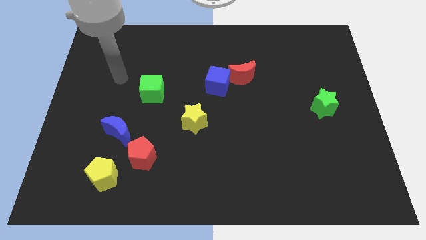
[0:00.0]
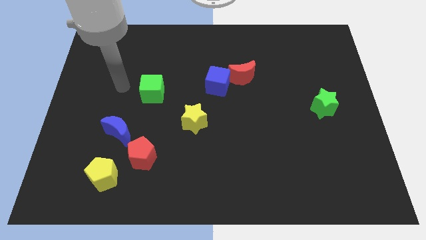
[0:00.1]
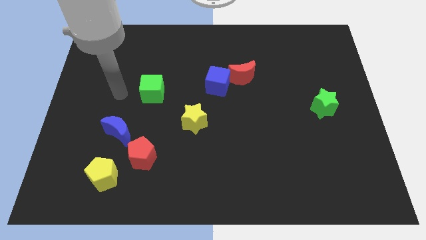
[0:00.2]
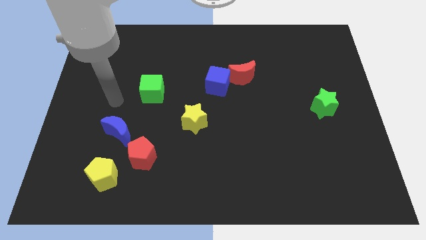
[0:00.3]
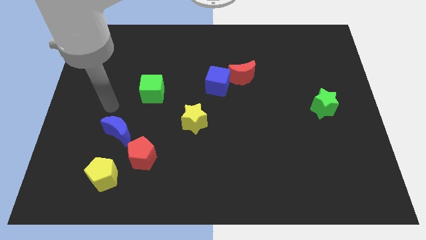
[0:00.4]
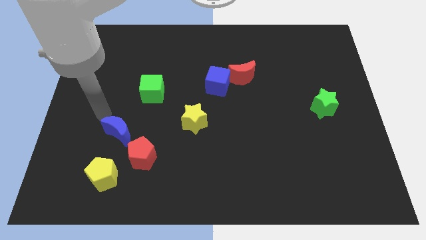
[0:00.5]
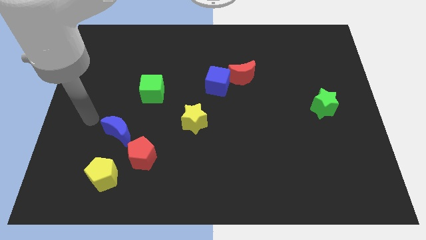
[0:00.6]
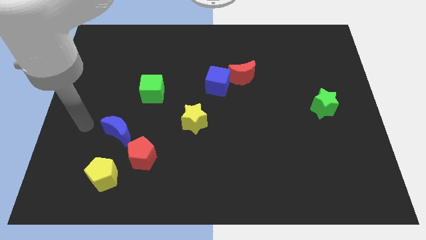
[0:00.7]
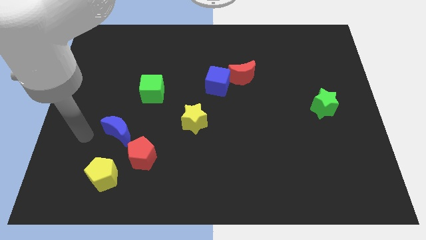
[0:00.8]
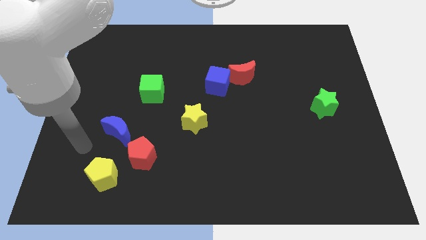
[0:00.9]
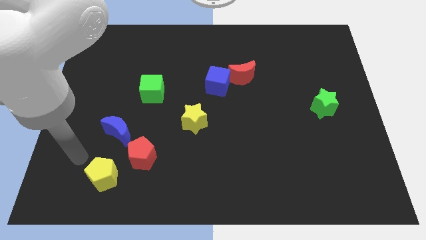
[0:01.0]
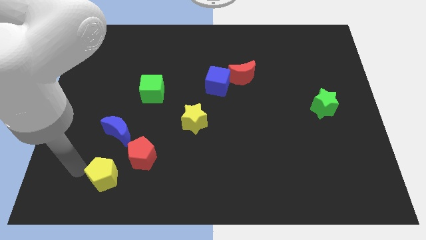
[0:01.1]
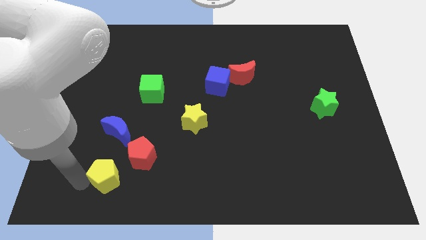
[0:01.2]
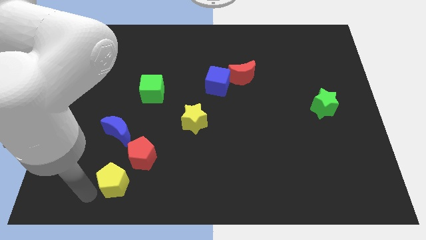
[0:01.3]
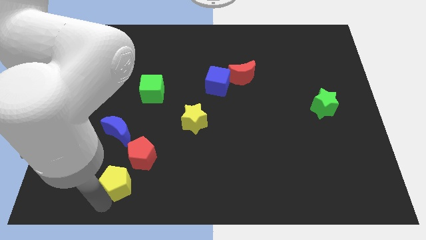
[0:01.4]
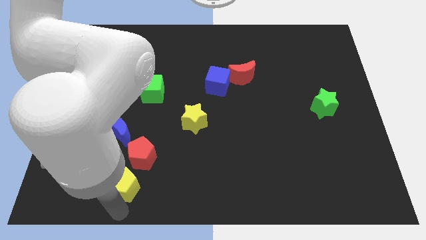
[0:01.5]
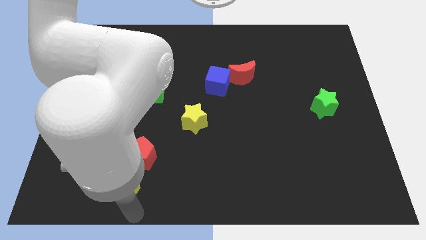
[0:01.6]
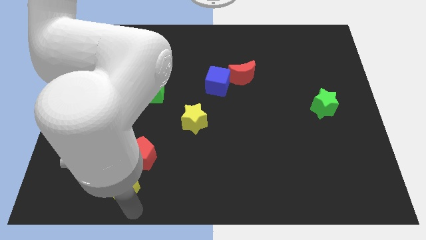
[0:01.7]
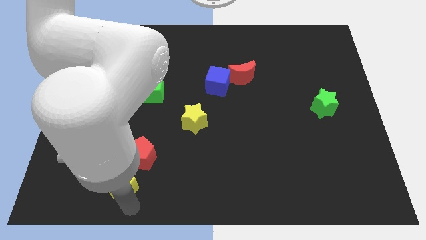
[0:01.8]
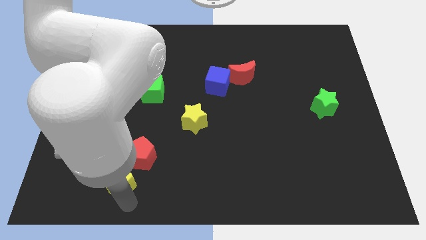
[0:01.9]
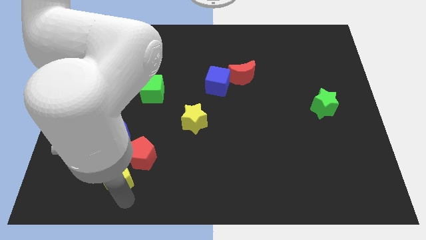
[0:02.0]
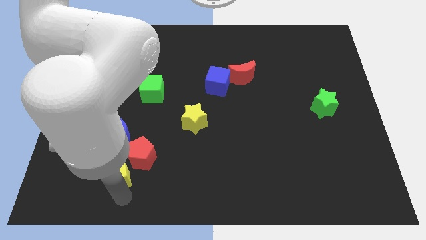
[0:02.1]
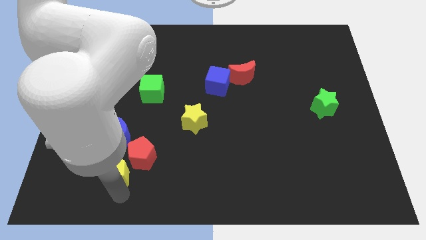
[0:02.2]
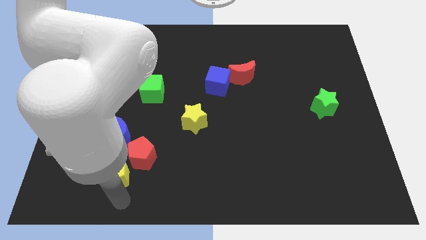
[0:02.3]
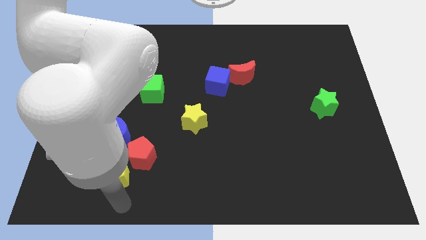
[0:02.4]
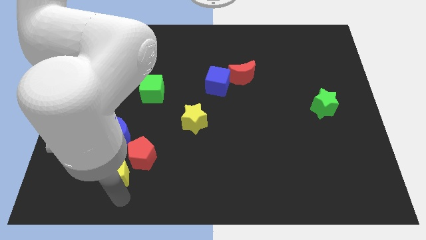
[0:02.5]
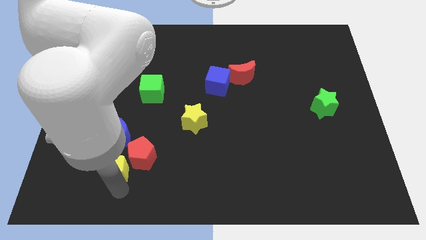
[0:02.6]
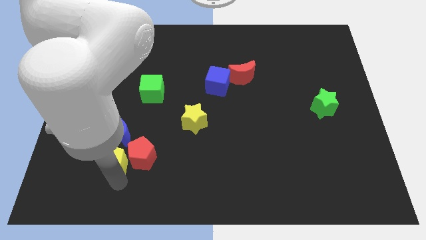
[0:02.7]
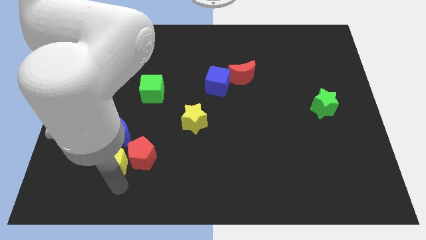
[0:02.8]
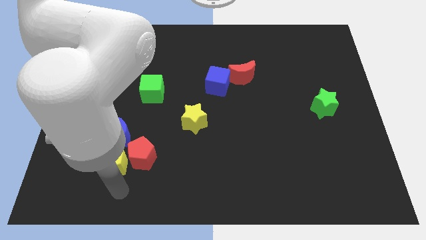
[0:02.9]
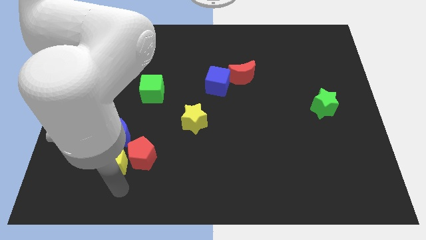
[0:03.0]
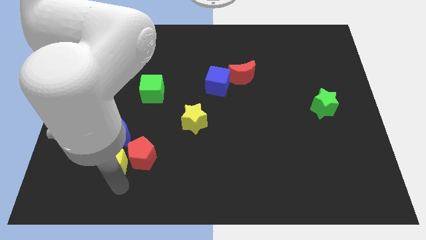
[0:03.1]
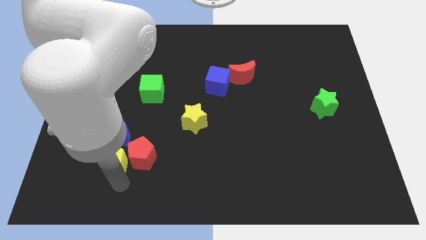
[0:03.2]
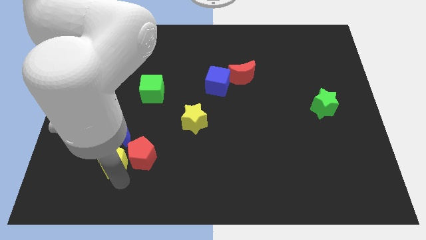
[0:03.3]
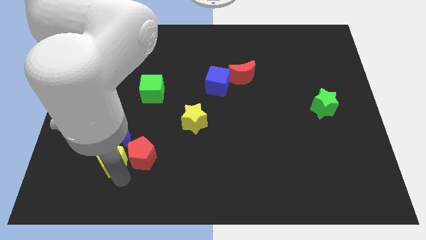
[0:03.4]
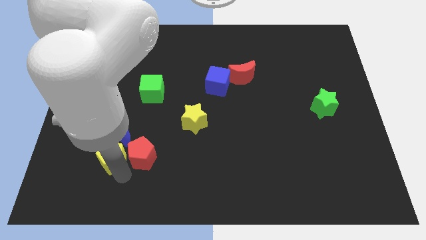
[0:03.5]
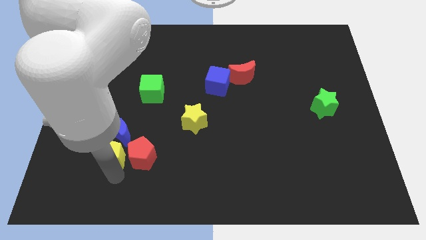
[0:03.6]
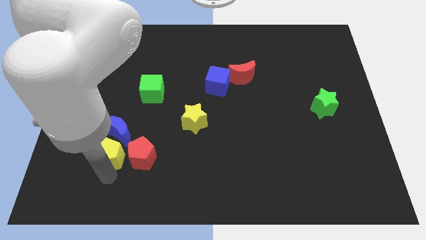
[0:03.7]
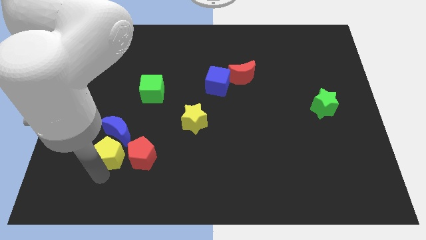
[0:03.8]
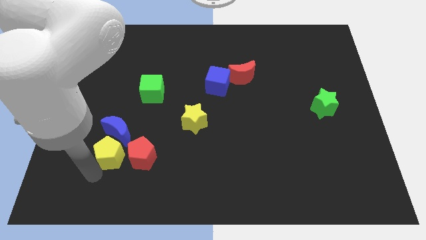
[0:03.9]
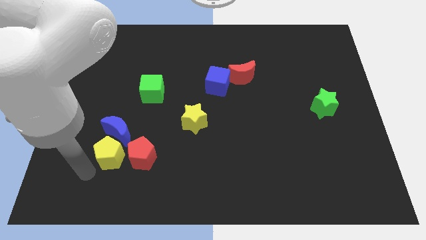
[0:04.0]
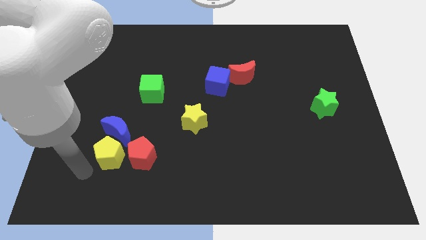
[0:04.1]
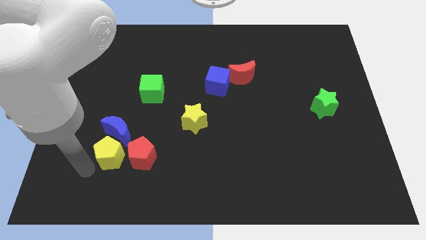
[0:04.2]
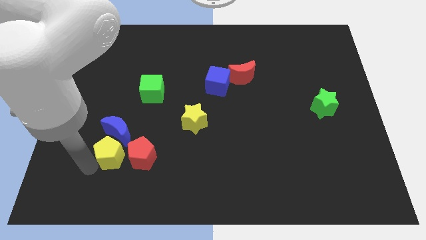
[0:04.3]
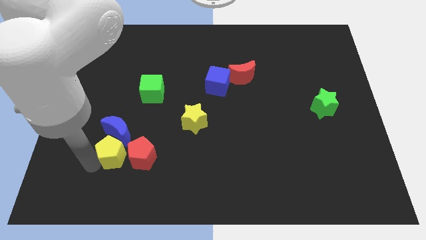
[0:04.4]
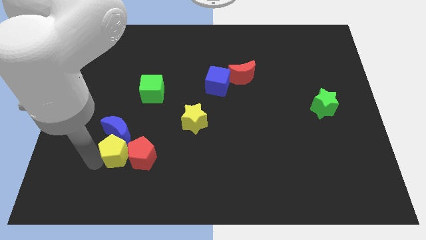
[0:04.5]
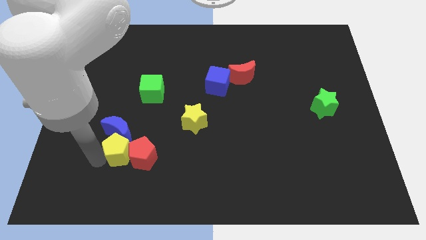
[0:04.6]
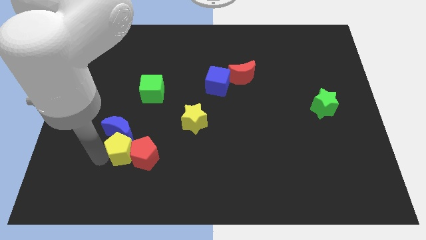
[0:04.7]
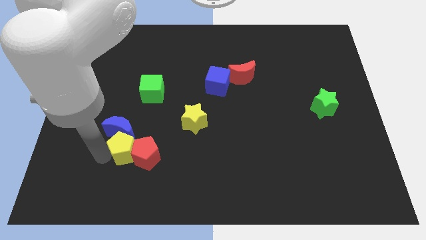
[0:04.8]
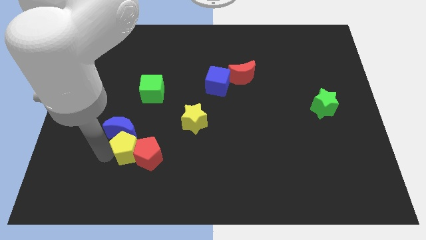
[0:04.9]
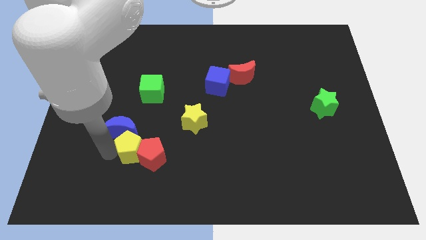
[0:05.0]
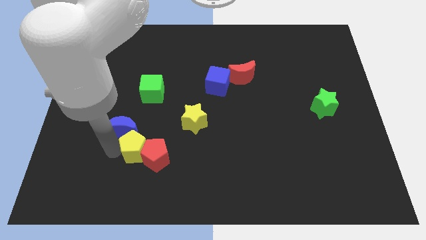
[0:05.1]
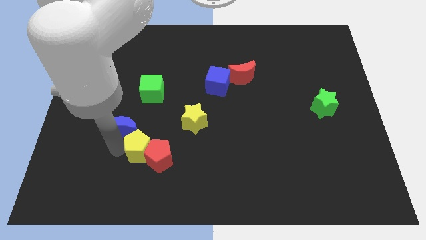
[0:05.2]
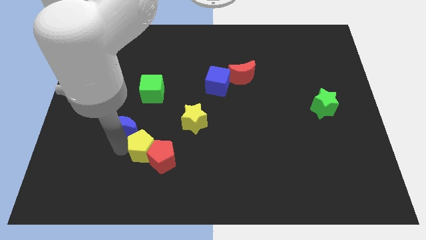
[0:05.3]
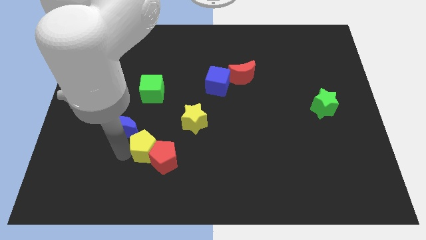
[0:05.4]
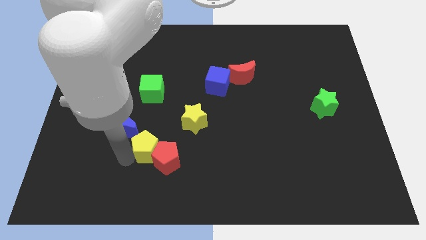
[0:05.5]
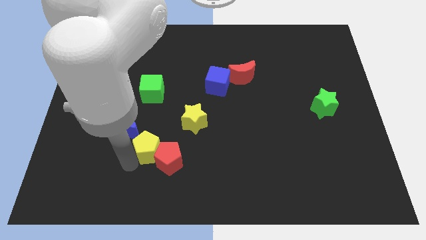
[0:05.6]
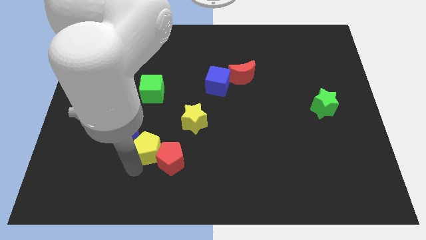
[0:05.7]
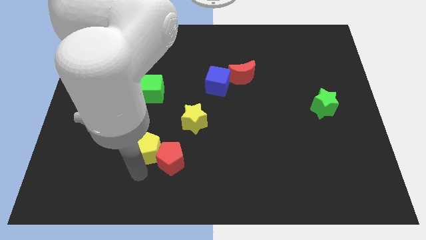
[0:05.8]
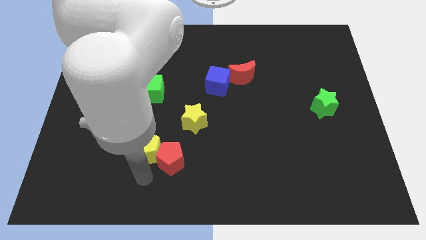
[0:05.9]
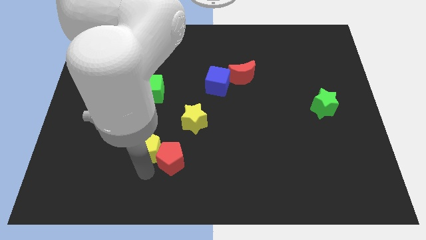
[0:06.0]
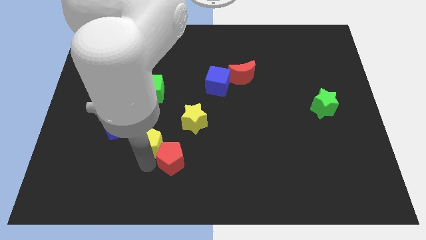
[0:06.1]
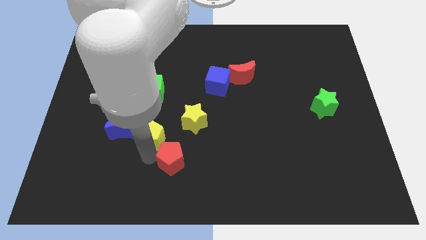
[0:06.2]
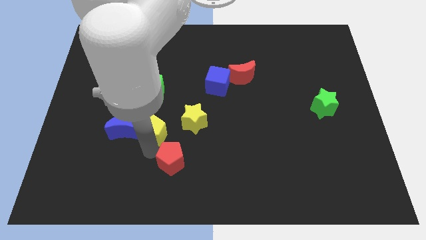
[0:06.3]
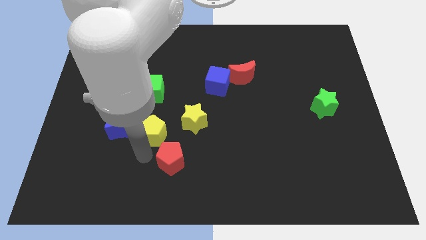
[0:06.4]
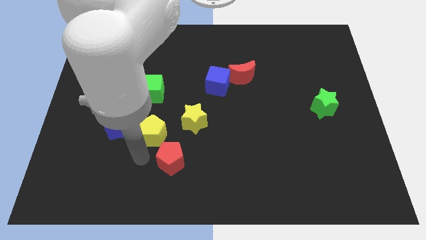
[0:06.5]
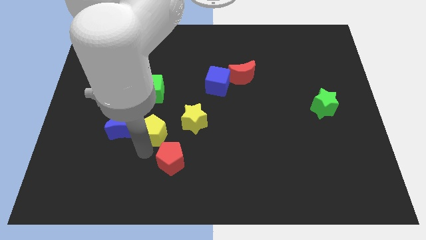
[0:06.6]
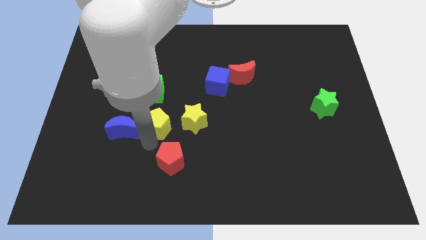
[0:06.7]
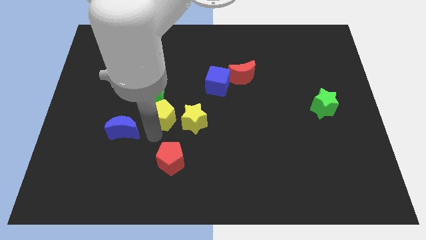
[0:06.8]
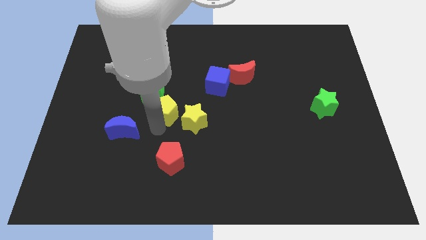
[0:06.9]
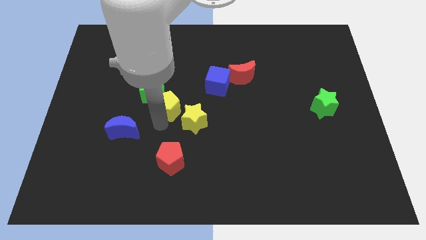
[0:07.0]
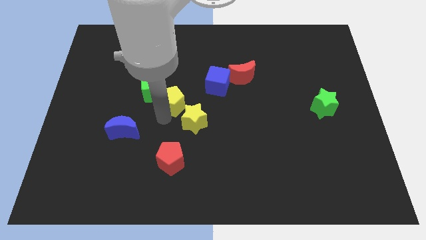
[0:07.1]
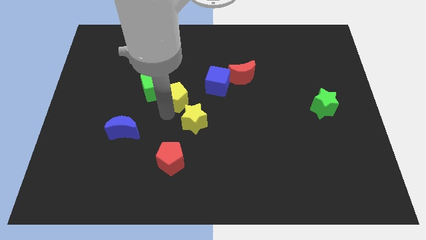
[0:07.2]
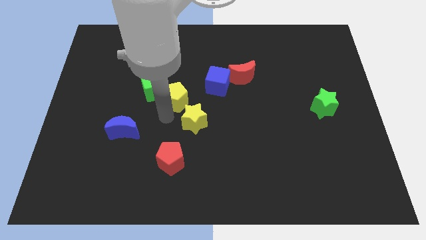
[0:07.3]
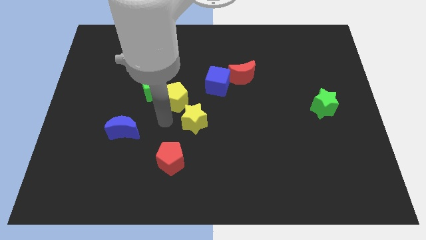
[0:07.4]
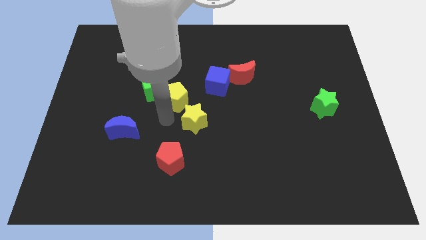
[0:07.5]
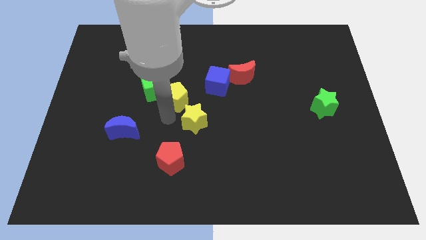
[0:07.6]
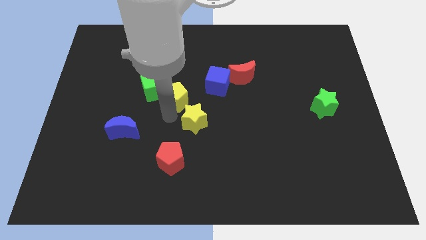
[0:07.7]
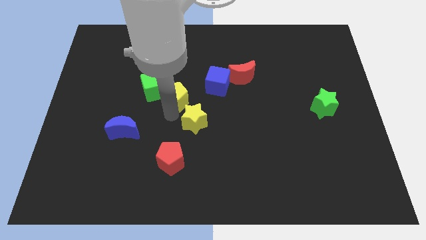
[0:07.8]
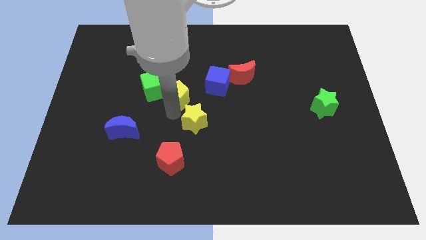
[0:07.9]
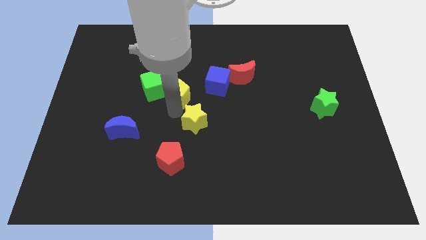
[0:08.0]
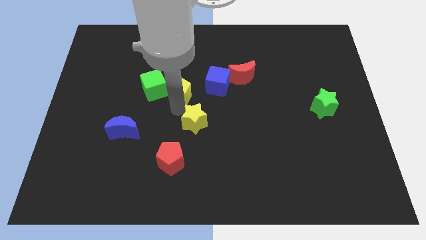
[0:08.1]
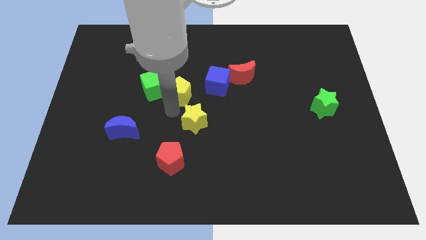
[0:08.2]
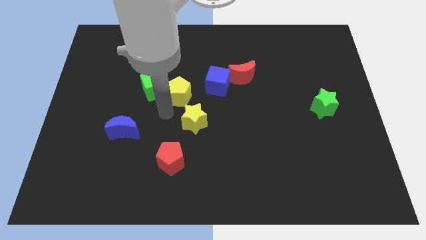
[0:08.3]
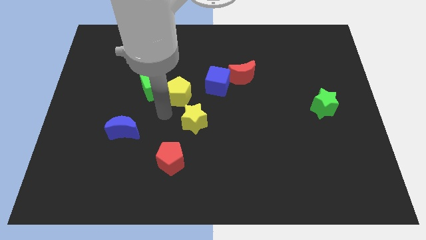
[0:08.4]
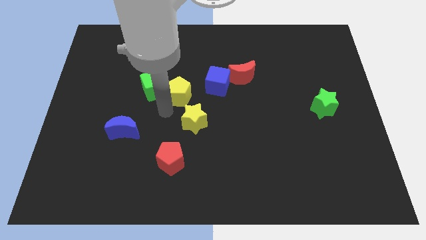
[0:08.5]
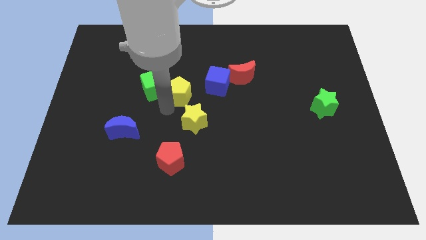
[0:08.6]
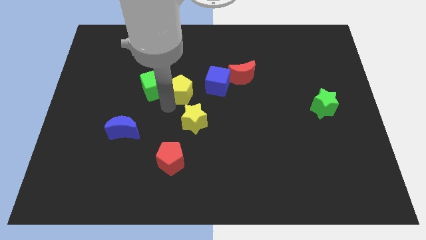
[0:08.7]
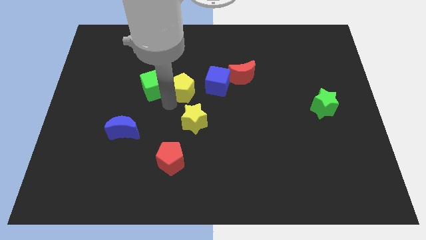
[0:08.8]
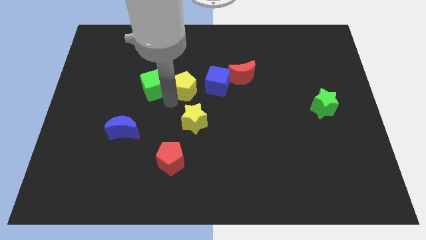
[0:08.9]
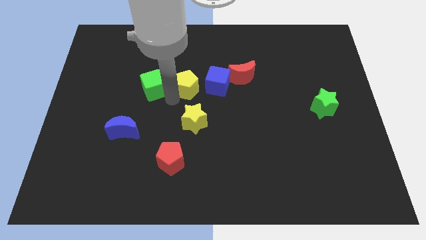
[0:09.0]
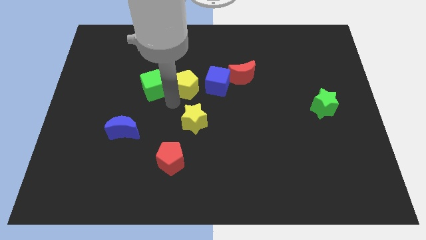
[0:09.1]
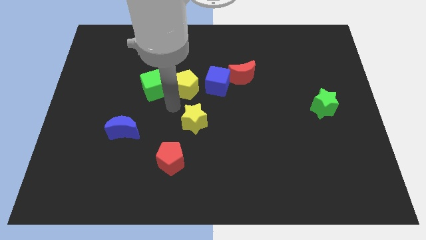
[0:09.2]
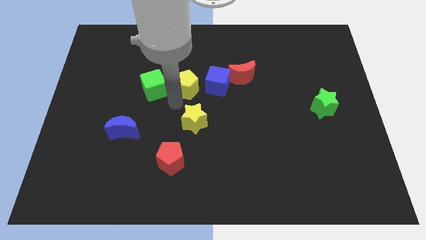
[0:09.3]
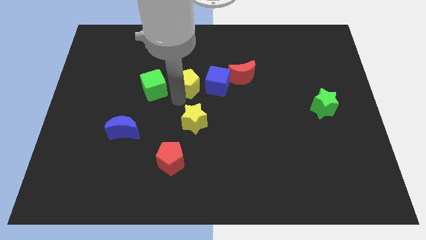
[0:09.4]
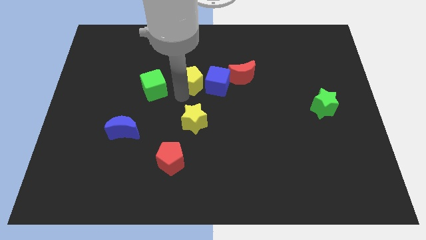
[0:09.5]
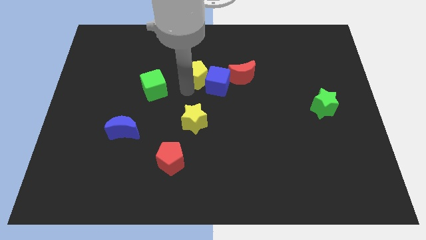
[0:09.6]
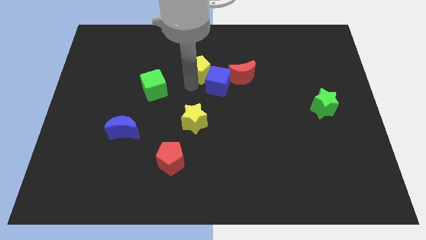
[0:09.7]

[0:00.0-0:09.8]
move the yellow pentagon to the top of the blue cube
